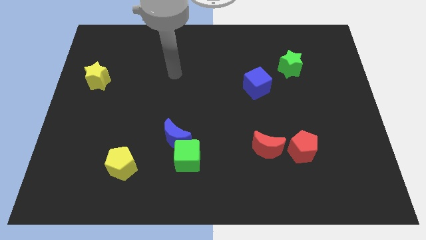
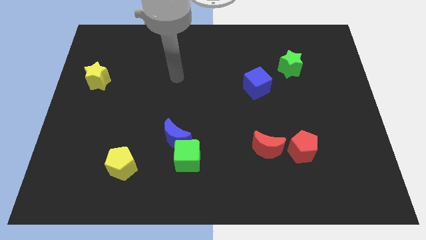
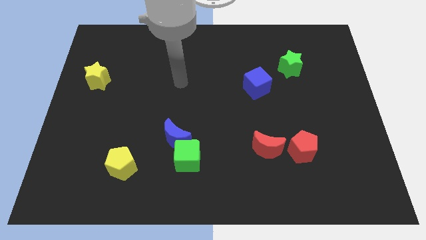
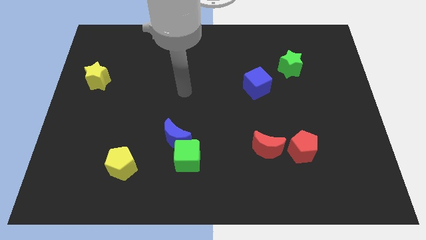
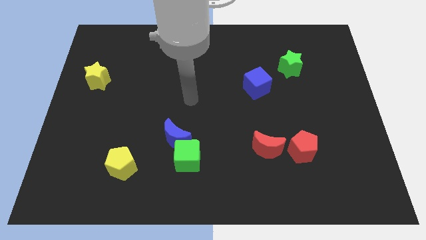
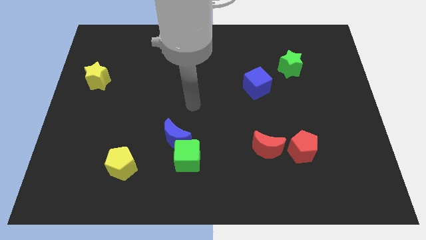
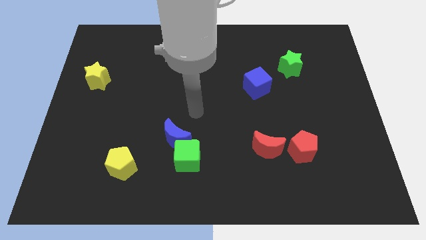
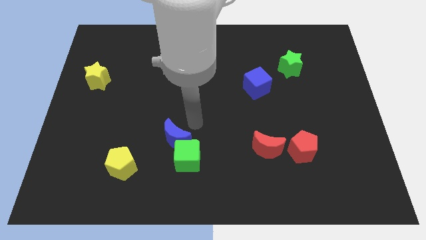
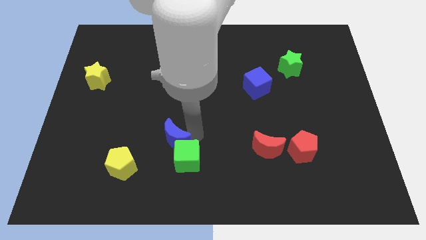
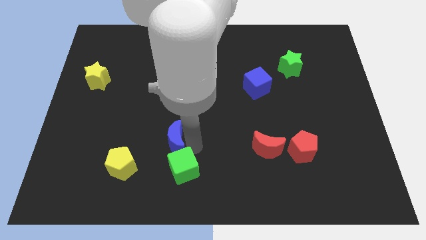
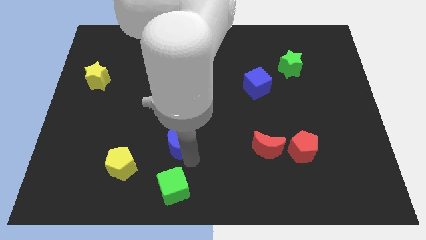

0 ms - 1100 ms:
separate the blue moon from the green cube

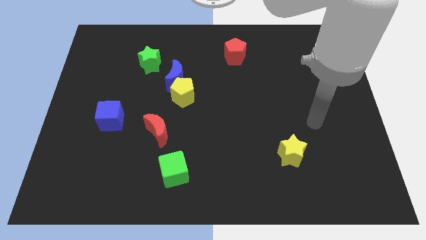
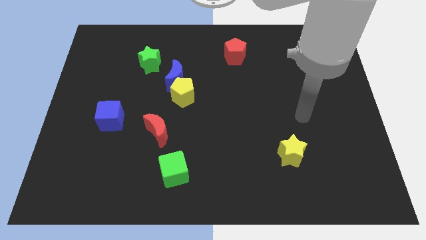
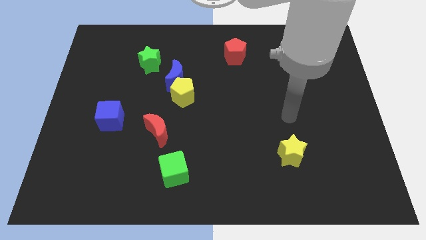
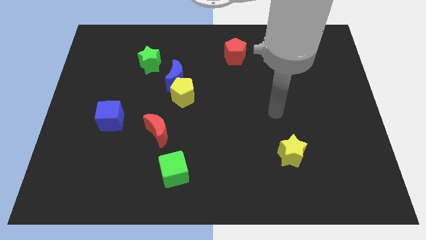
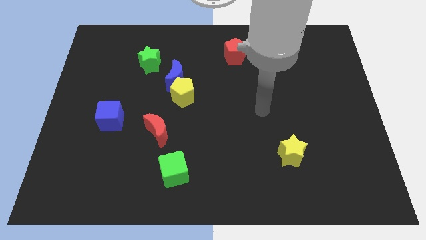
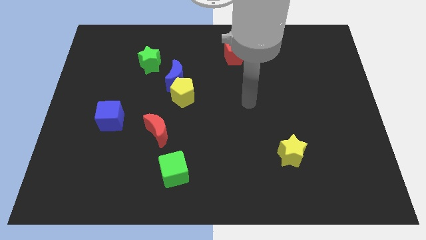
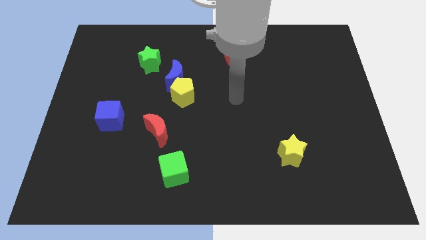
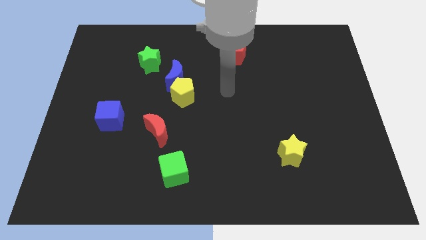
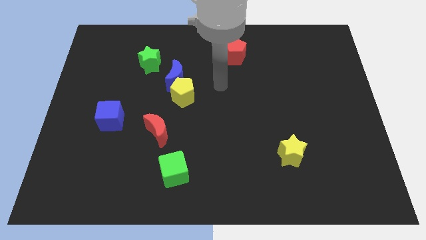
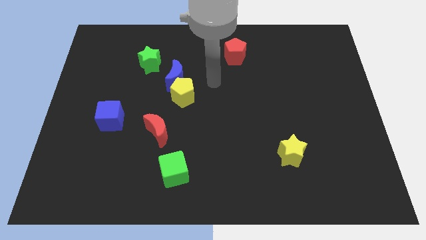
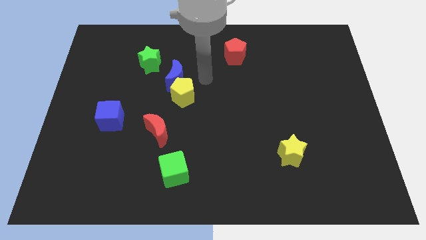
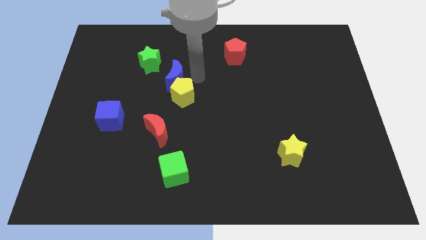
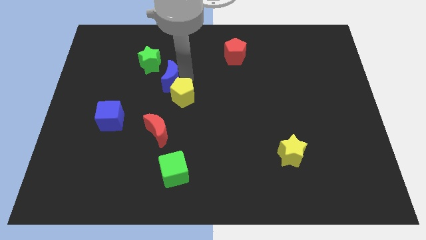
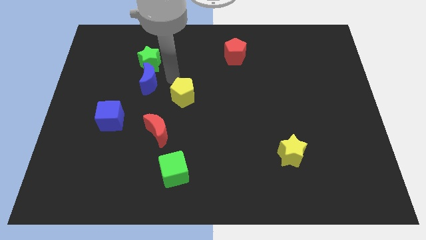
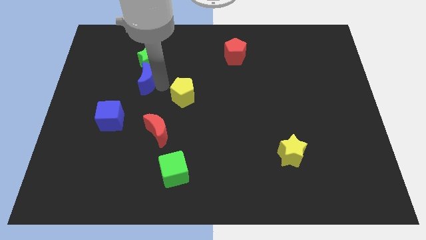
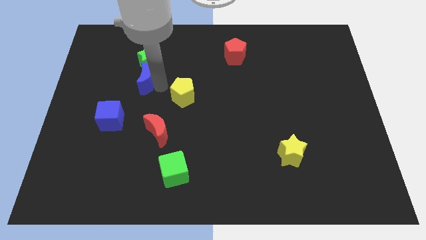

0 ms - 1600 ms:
pull the yellow pentagon apart from the blue moon

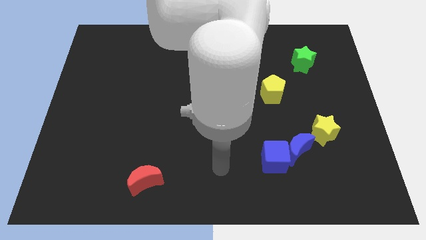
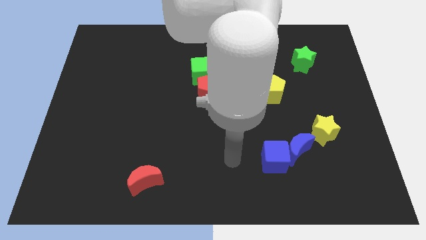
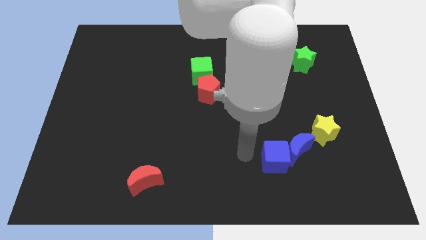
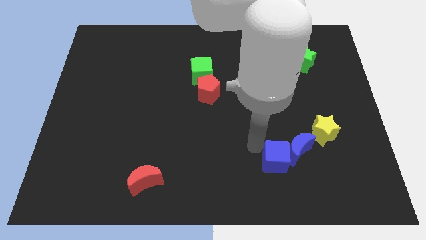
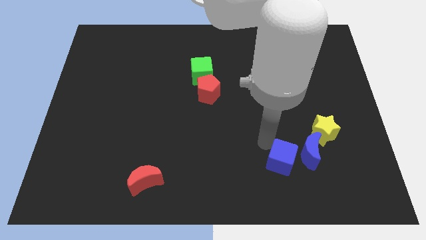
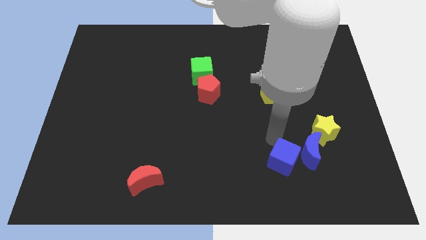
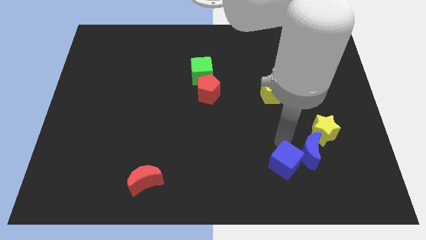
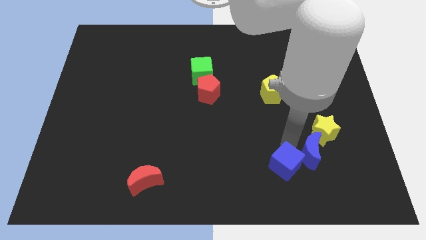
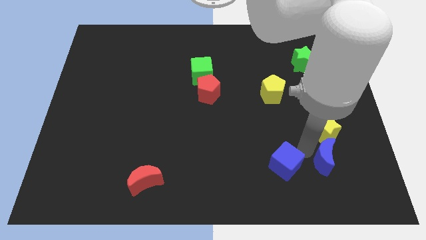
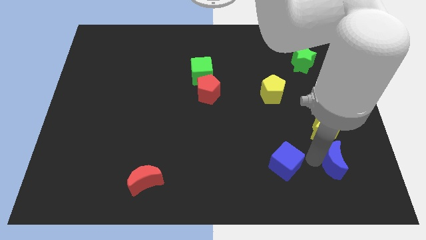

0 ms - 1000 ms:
separate the blue cube from the blue moon

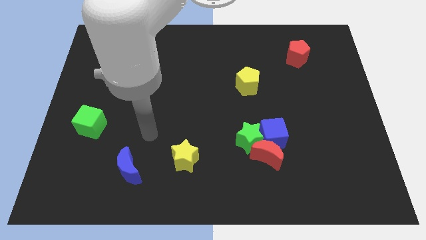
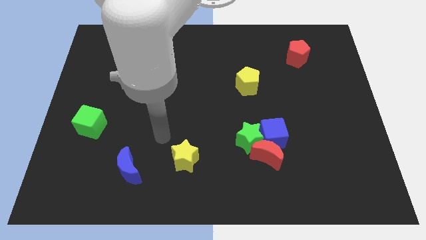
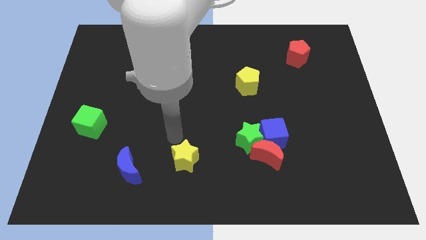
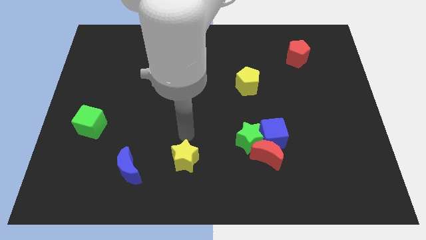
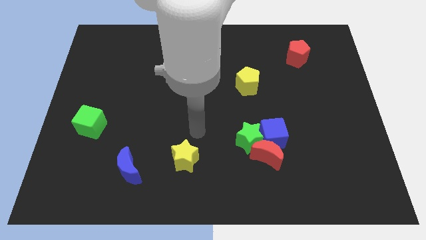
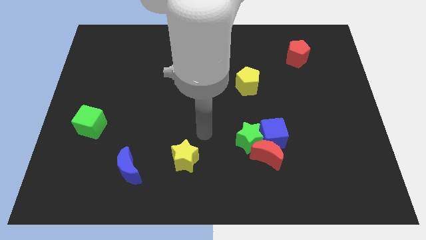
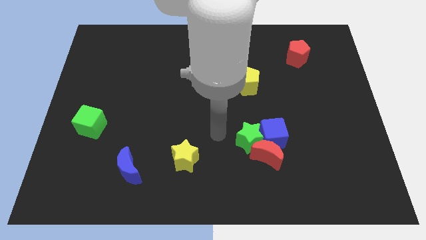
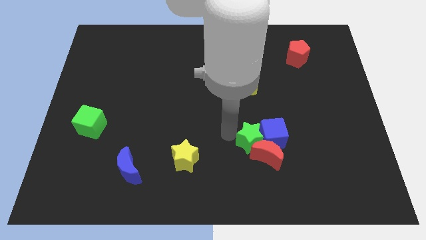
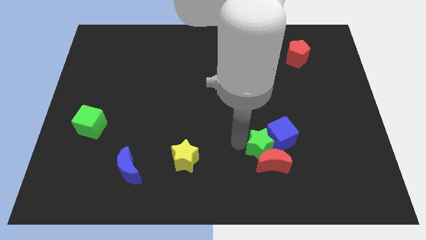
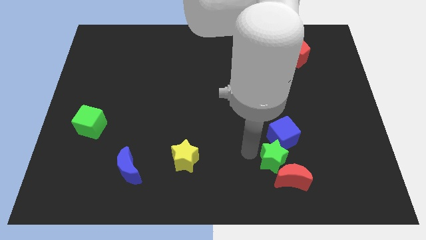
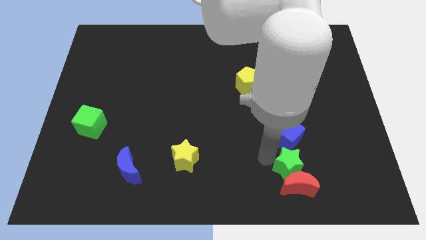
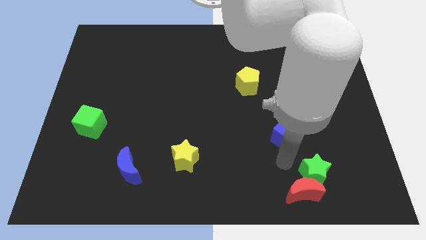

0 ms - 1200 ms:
move the blue cube away from the red moon and green star

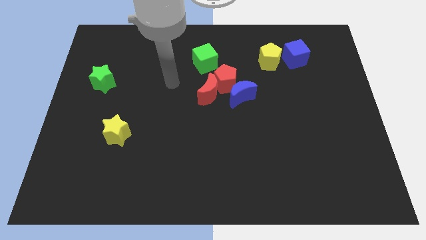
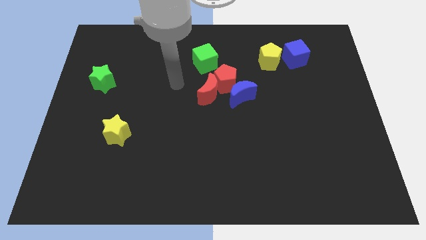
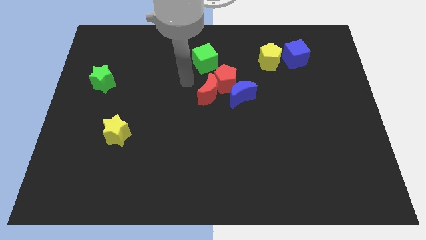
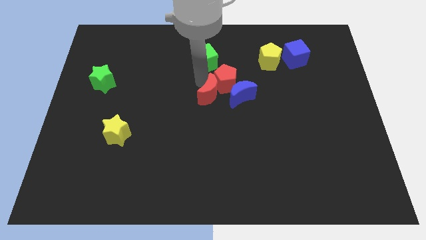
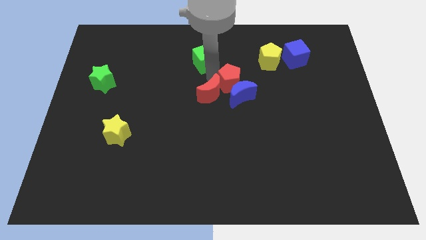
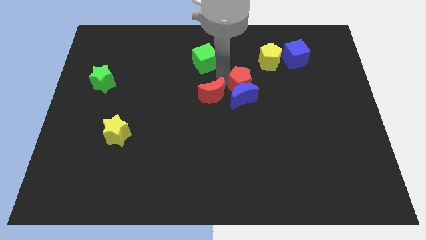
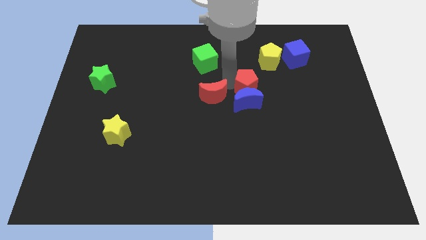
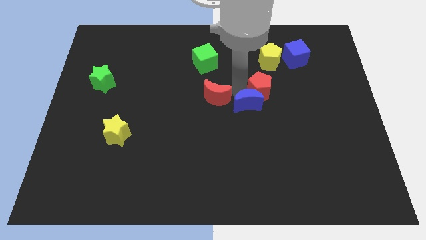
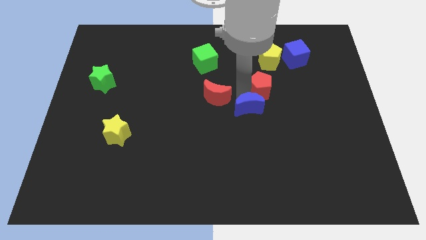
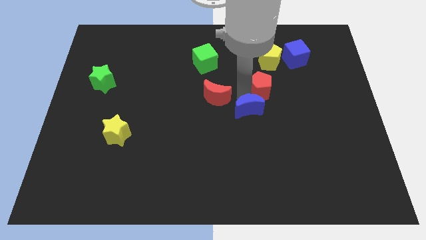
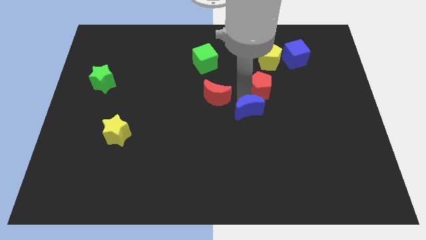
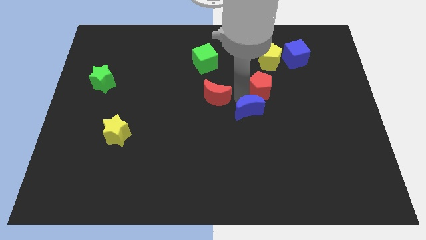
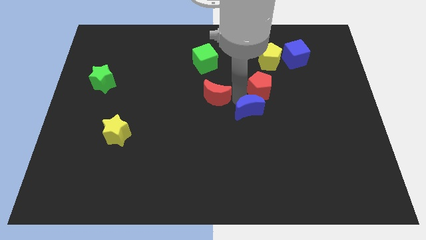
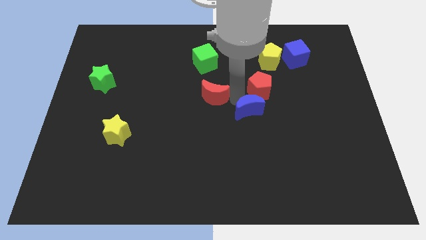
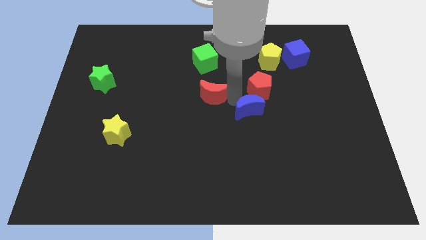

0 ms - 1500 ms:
separate the red moon from the red pentagon and blue moon

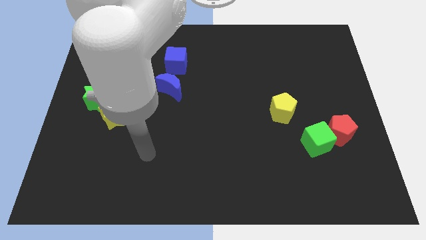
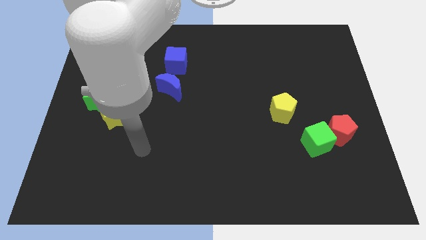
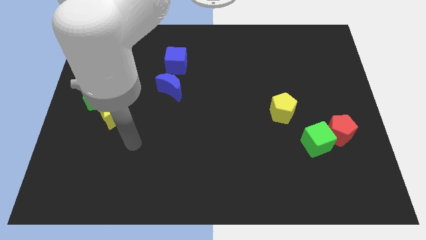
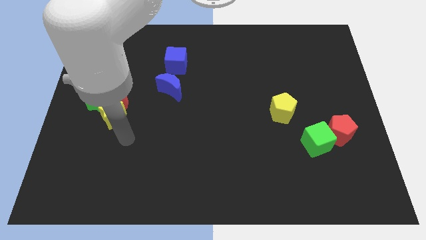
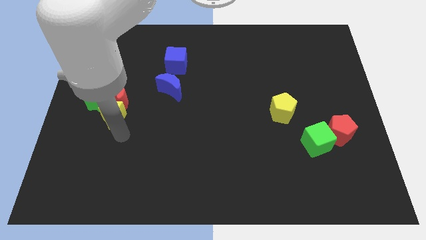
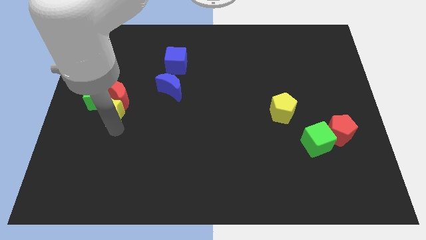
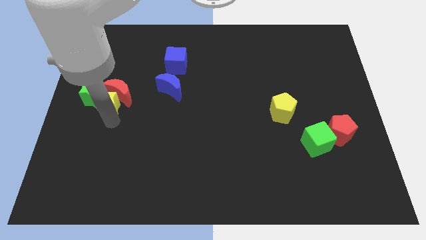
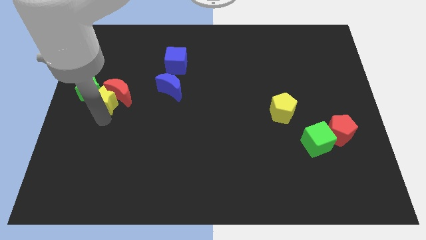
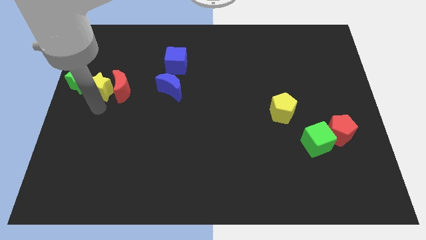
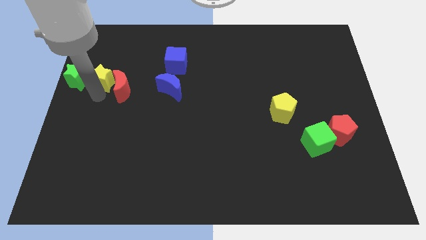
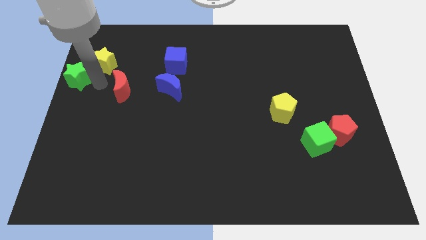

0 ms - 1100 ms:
pull the red moon apart from the green star and yellow star

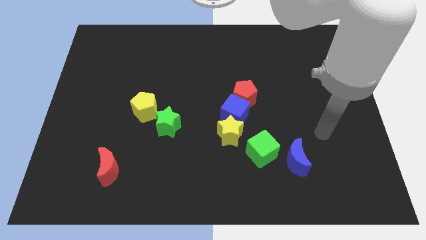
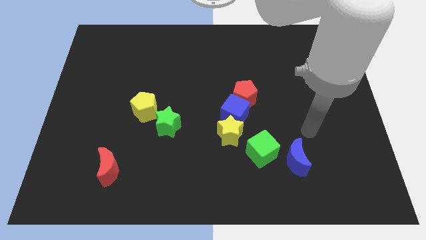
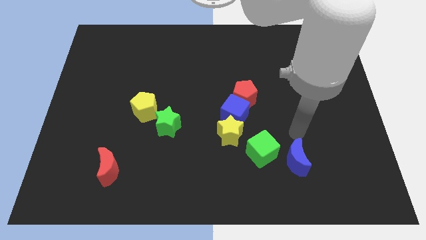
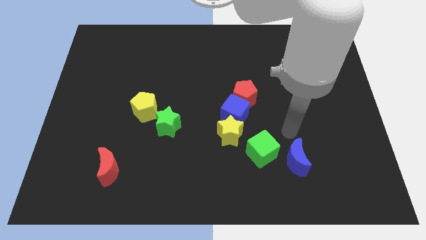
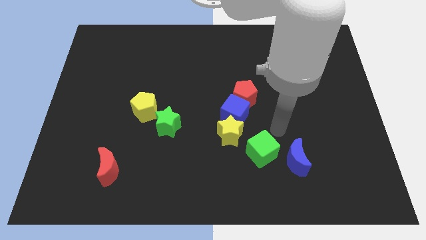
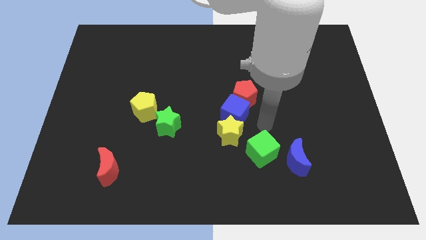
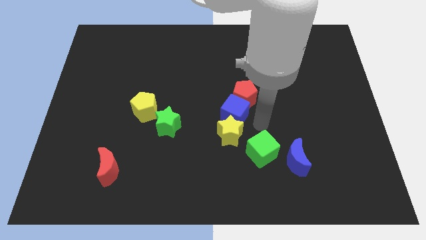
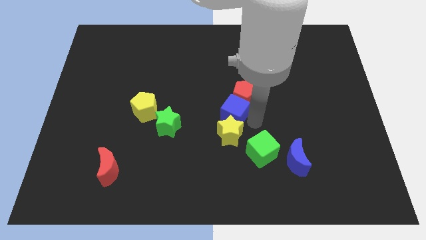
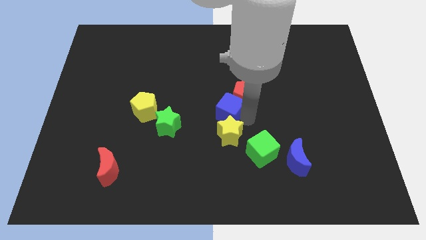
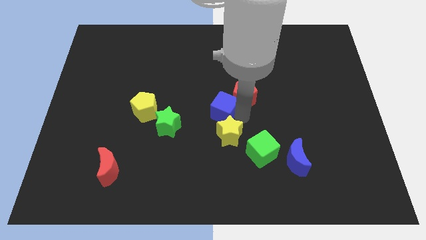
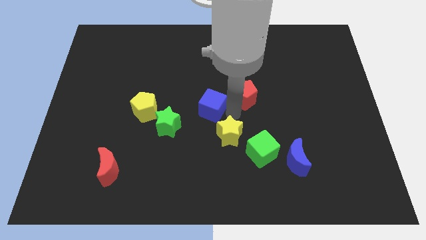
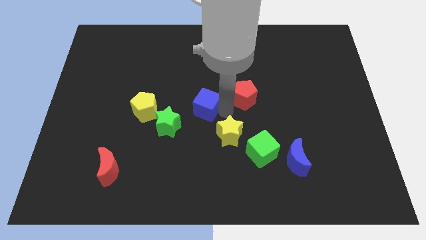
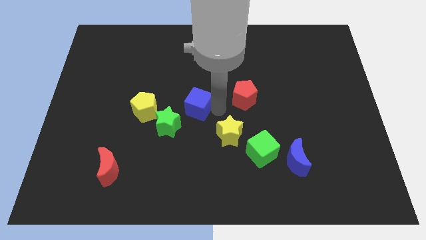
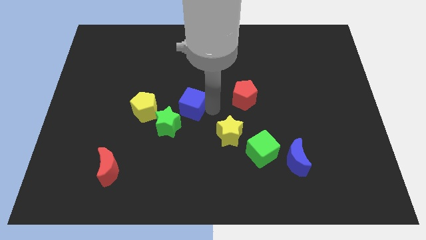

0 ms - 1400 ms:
pull the blue cube apart from the yellow star and red pentagon

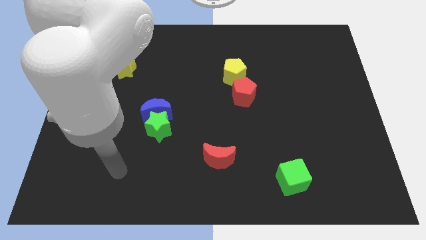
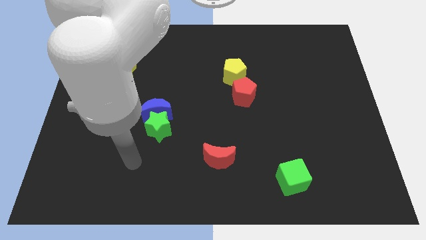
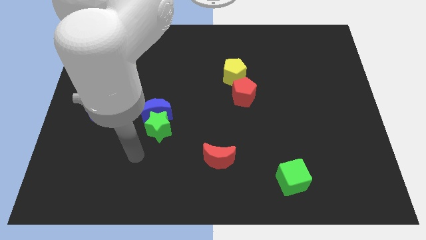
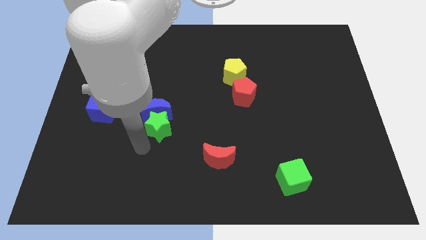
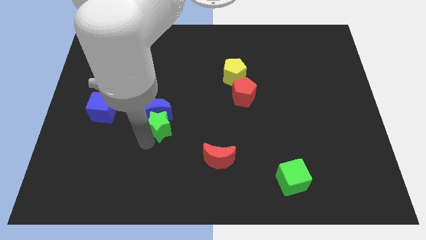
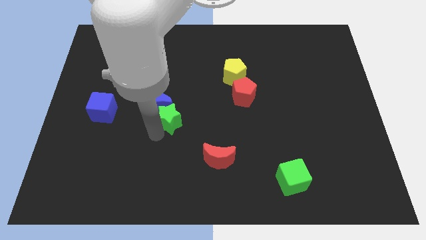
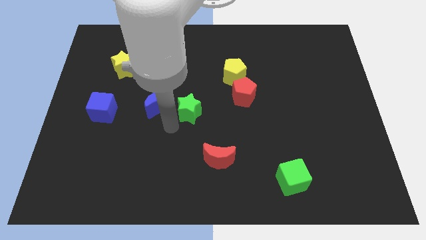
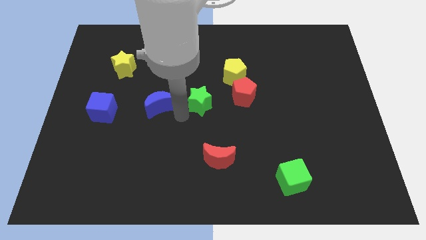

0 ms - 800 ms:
move the blue moon away from the green star
